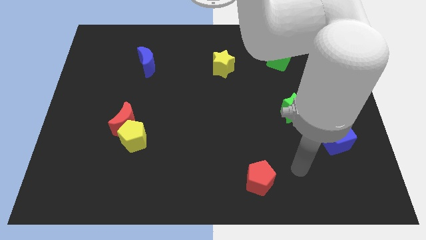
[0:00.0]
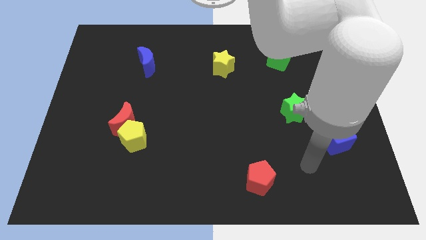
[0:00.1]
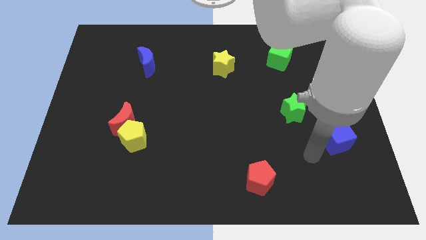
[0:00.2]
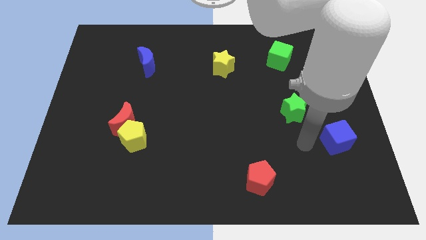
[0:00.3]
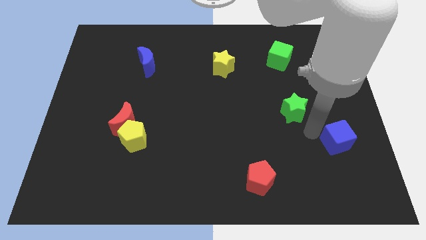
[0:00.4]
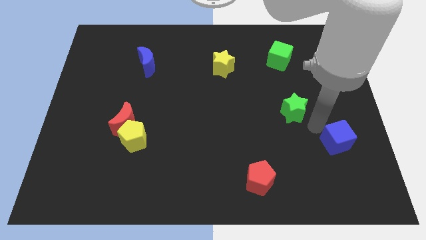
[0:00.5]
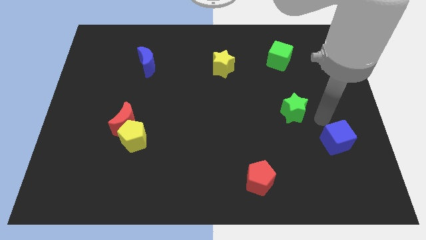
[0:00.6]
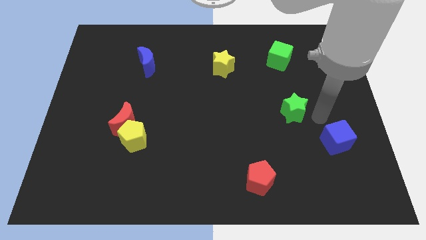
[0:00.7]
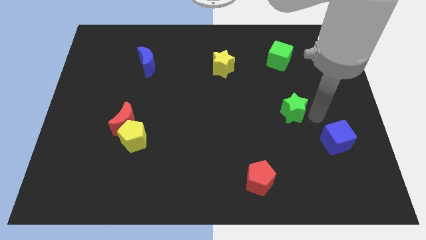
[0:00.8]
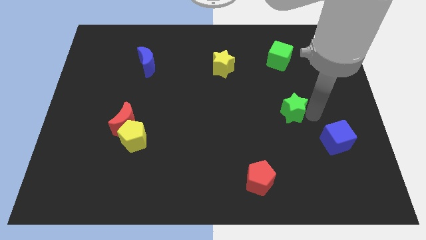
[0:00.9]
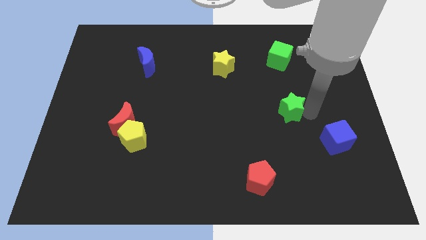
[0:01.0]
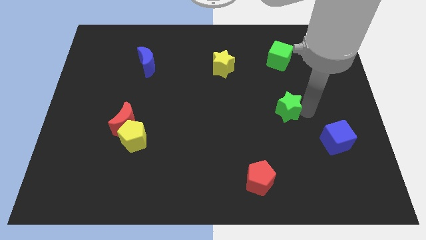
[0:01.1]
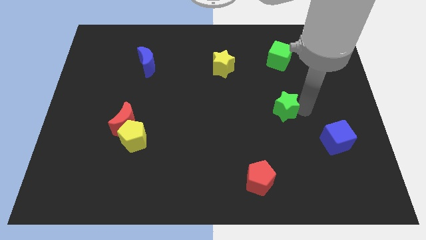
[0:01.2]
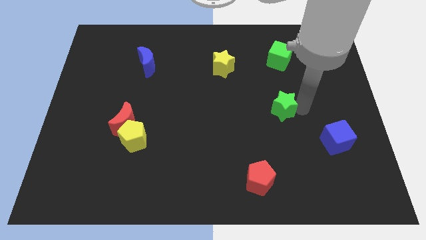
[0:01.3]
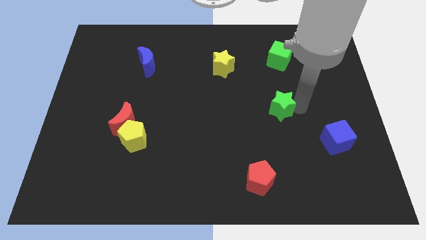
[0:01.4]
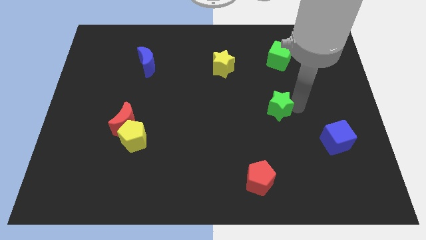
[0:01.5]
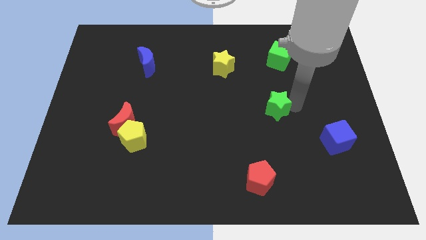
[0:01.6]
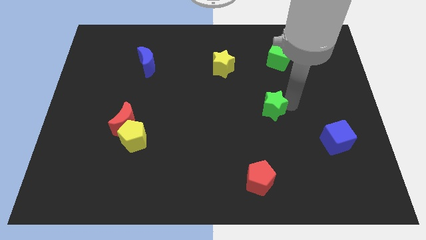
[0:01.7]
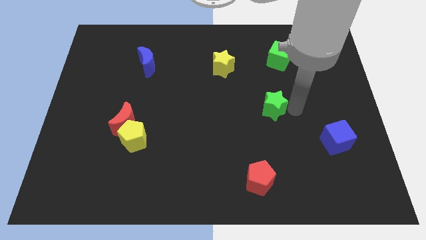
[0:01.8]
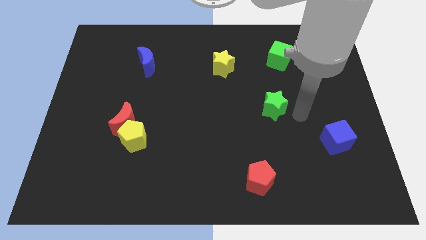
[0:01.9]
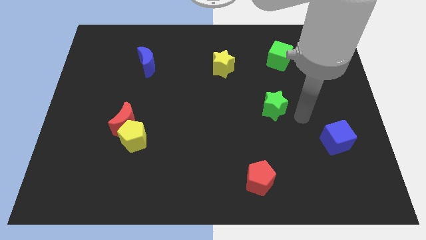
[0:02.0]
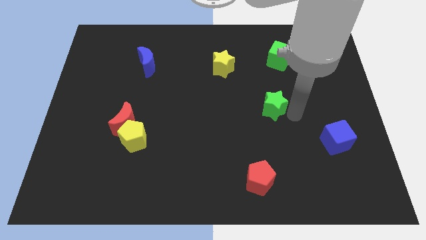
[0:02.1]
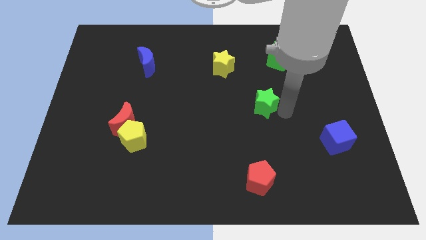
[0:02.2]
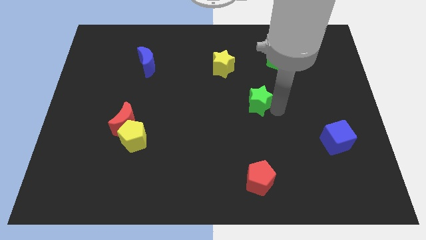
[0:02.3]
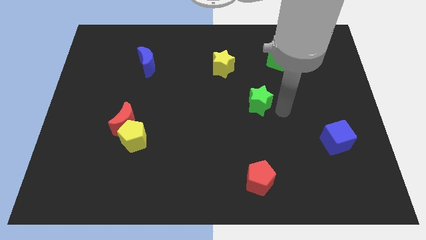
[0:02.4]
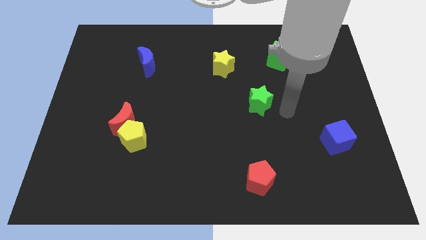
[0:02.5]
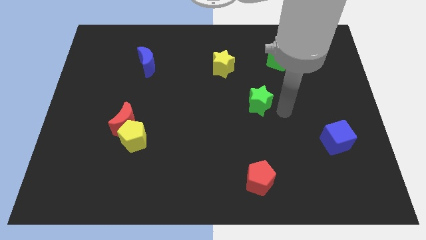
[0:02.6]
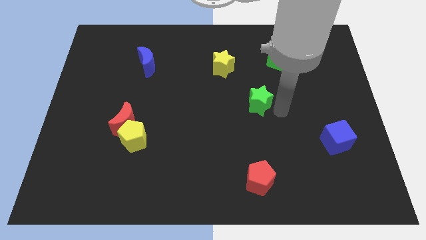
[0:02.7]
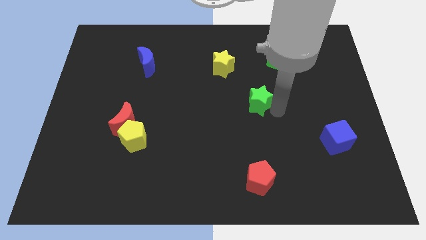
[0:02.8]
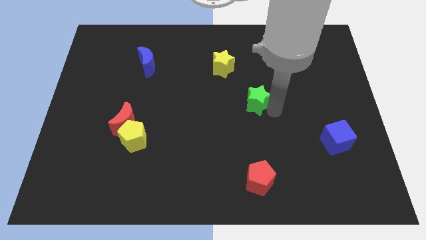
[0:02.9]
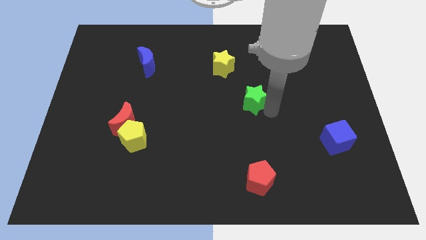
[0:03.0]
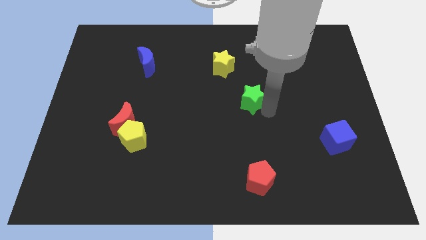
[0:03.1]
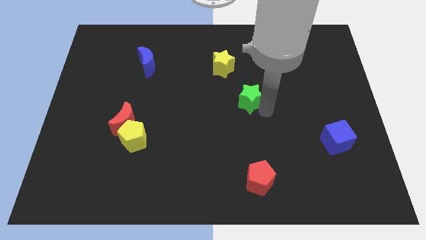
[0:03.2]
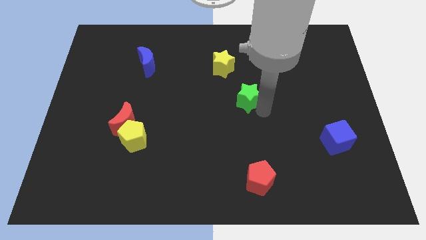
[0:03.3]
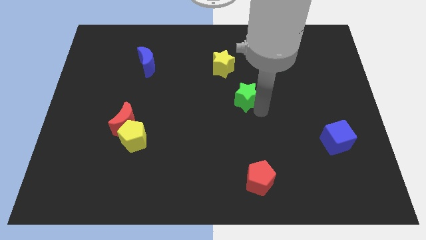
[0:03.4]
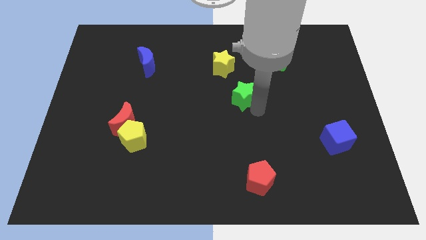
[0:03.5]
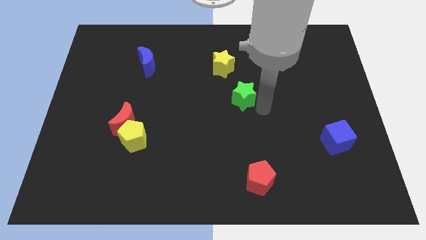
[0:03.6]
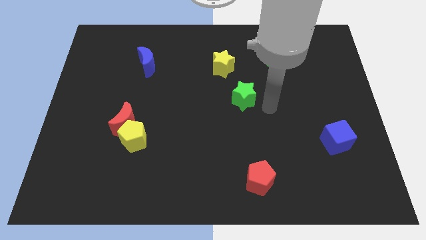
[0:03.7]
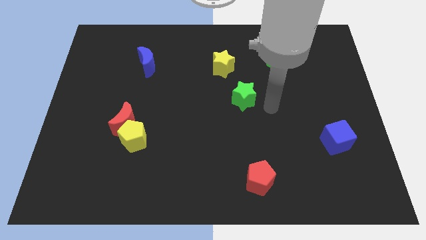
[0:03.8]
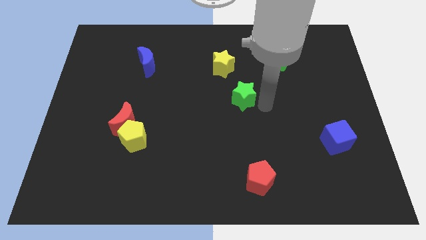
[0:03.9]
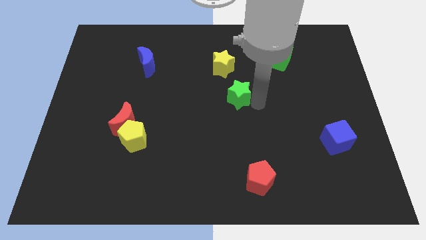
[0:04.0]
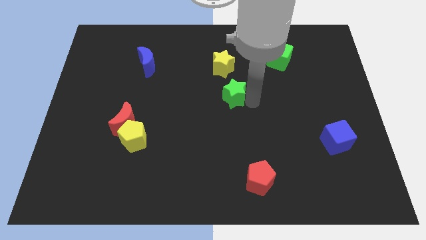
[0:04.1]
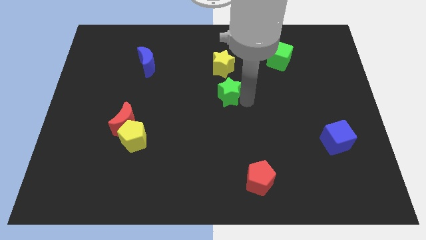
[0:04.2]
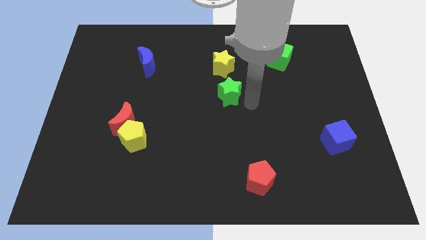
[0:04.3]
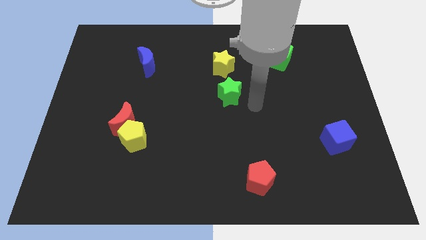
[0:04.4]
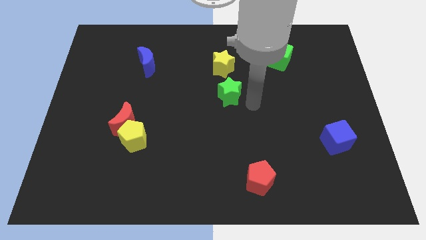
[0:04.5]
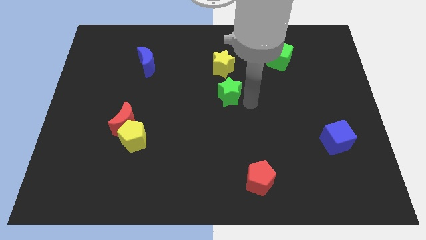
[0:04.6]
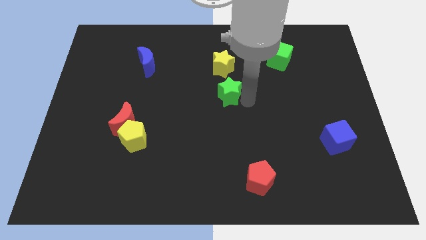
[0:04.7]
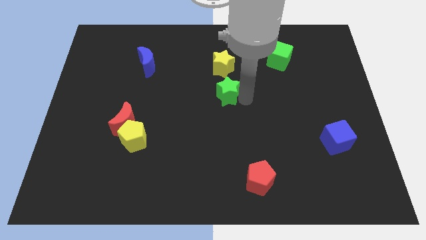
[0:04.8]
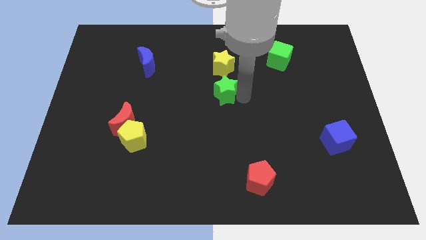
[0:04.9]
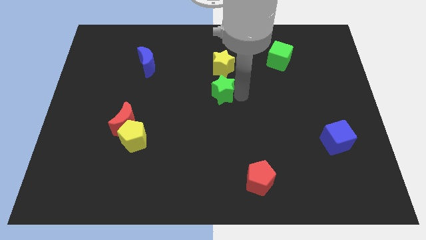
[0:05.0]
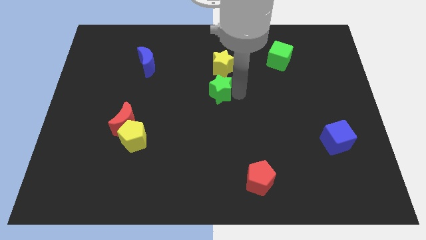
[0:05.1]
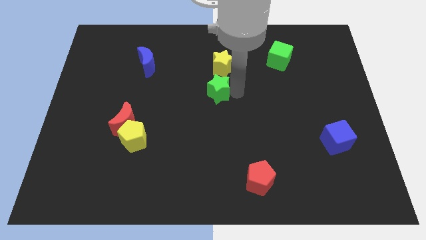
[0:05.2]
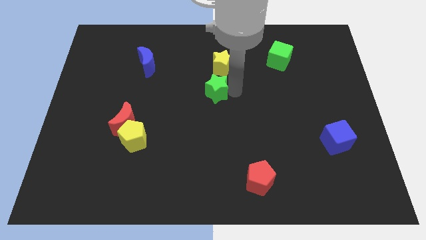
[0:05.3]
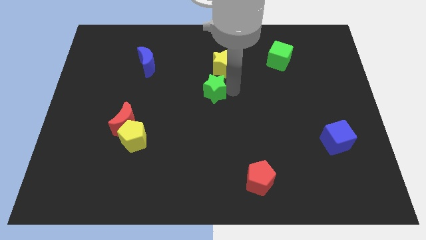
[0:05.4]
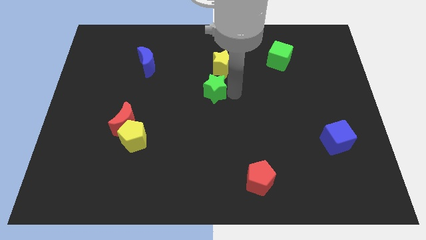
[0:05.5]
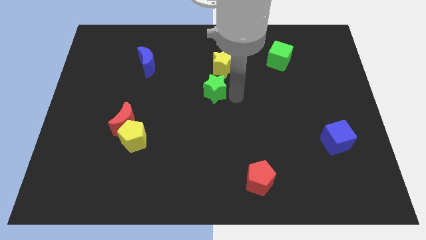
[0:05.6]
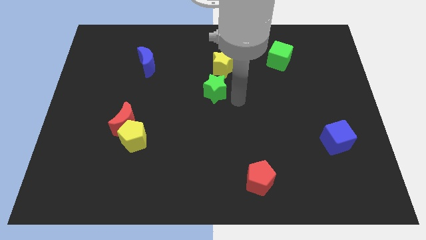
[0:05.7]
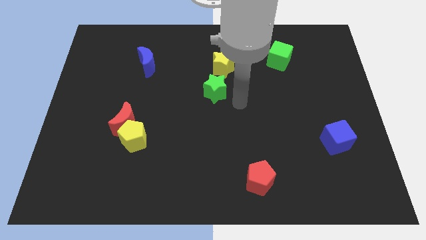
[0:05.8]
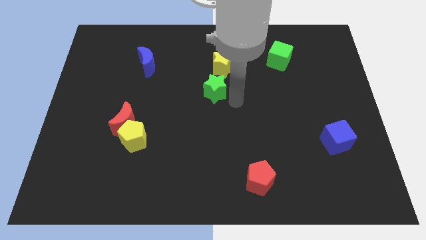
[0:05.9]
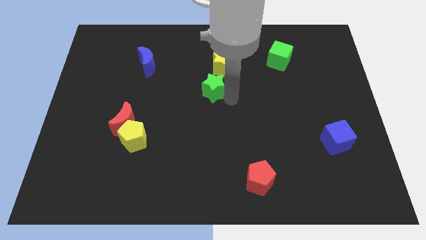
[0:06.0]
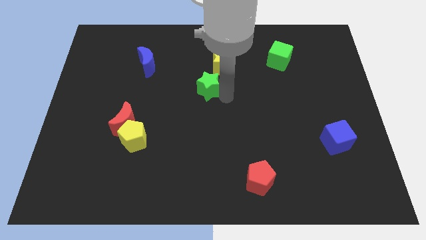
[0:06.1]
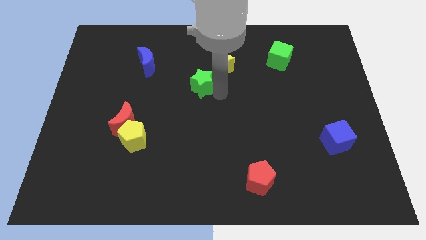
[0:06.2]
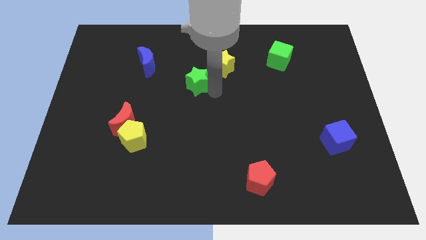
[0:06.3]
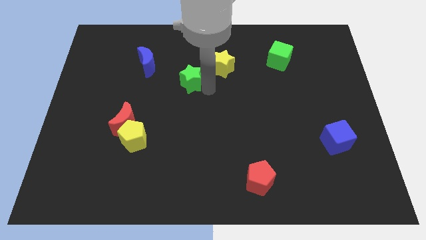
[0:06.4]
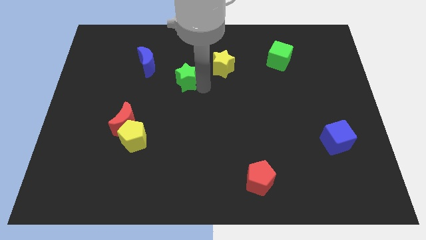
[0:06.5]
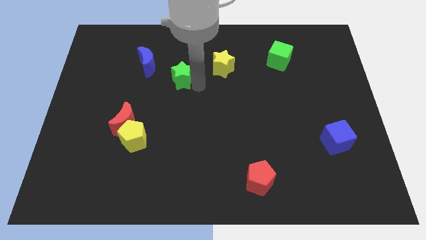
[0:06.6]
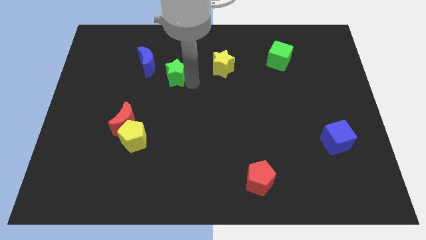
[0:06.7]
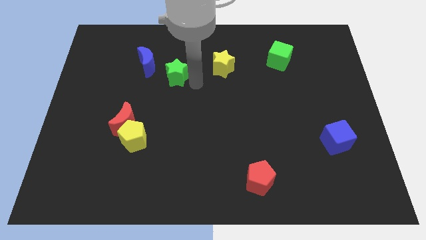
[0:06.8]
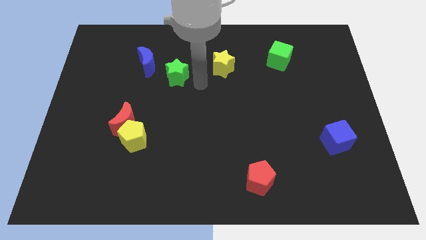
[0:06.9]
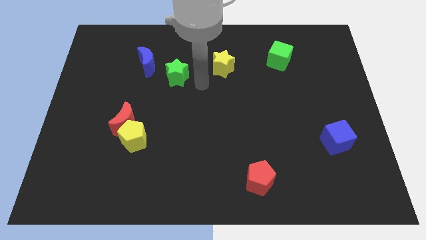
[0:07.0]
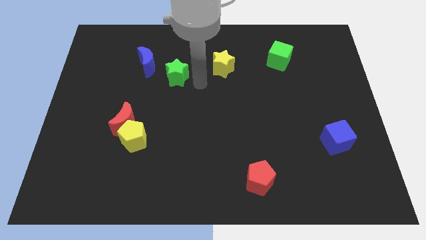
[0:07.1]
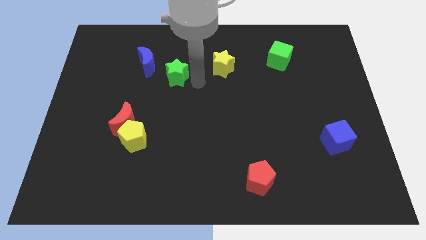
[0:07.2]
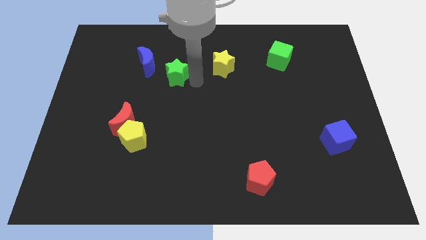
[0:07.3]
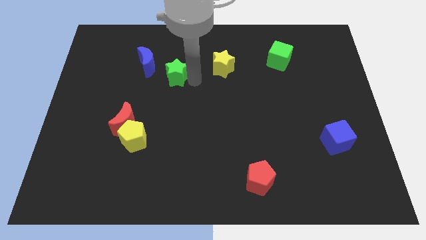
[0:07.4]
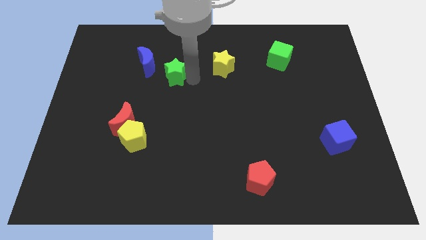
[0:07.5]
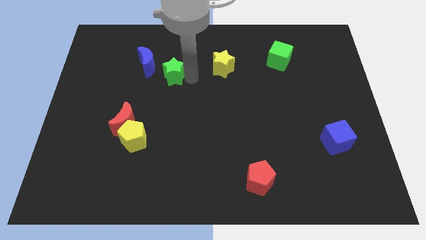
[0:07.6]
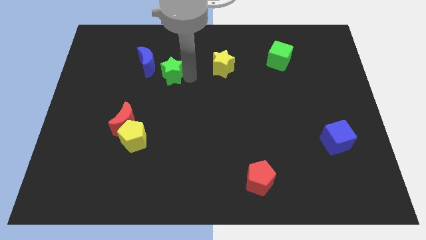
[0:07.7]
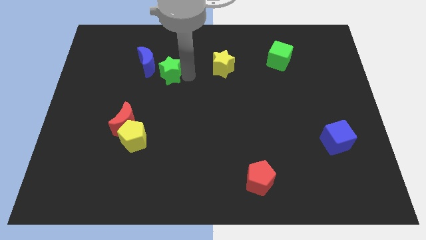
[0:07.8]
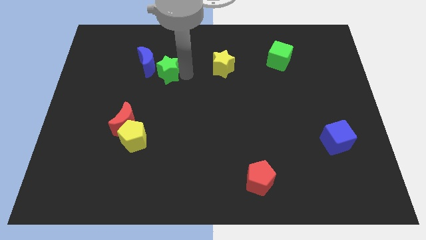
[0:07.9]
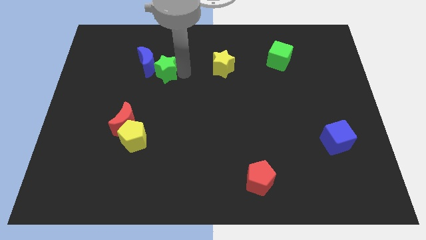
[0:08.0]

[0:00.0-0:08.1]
slide the green star close to the blue moon
